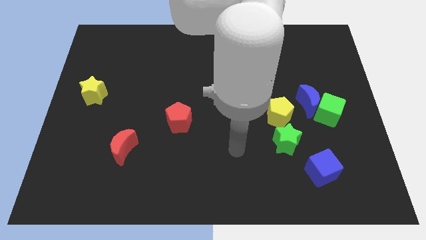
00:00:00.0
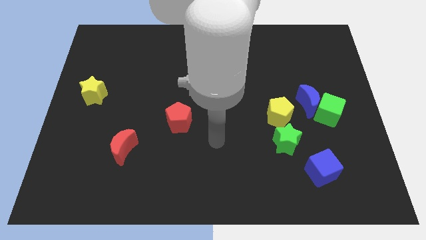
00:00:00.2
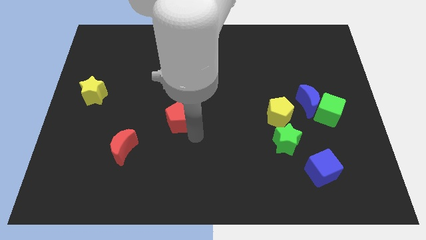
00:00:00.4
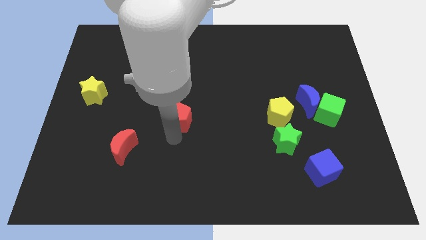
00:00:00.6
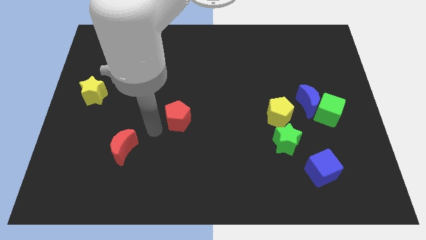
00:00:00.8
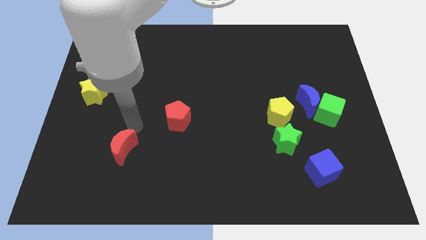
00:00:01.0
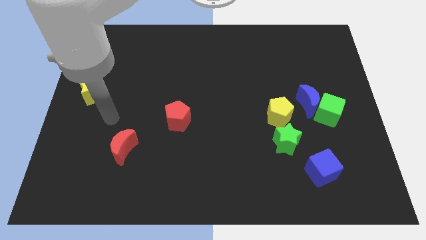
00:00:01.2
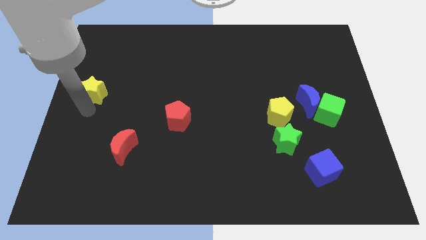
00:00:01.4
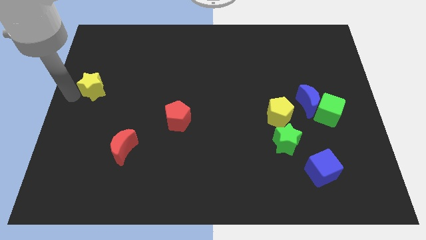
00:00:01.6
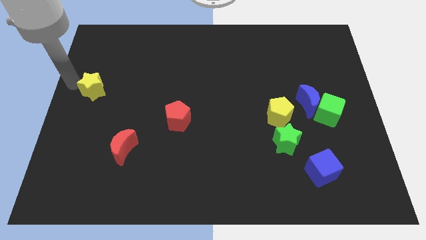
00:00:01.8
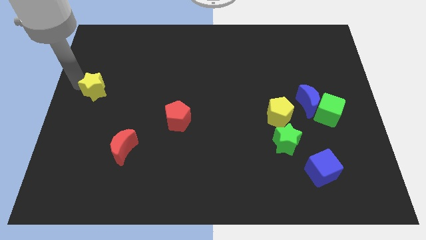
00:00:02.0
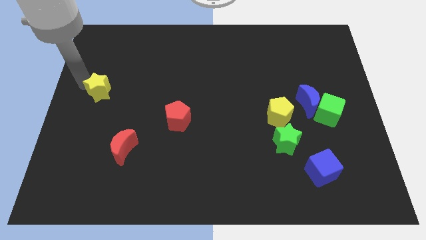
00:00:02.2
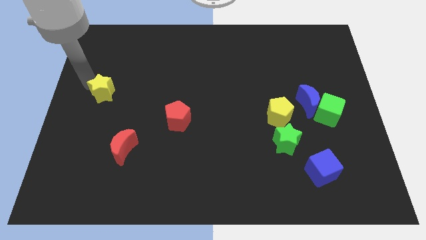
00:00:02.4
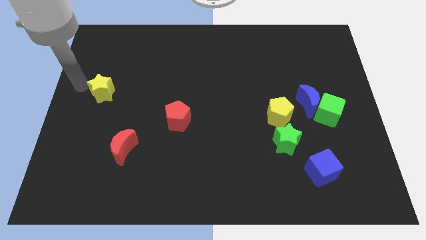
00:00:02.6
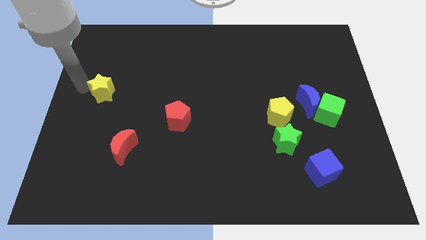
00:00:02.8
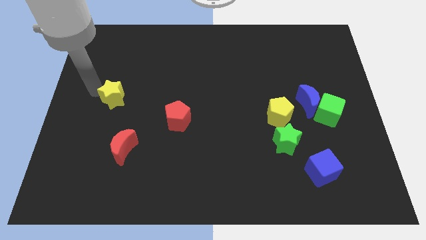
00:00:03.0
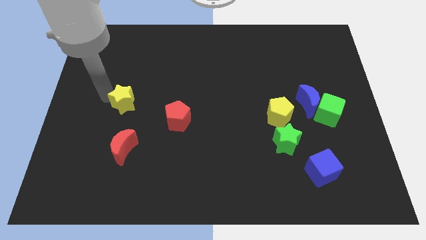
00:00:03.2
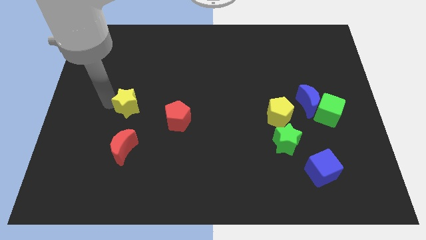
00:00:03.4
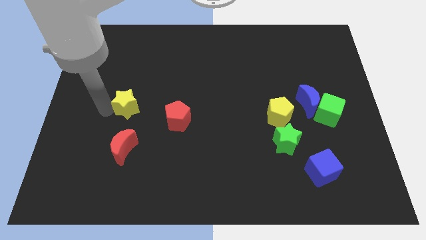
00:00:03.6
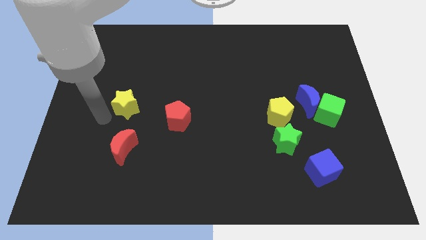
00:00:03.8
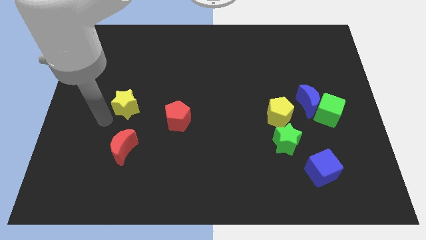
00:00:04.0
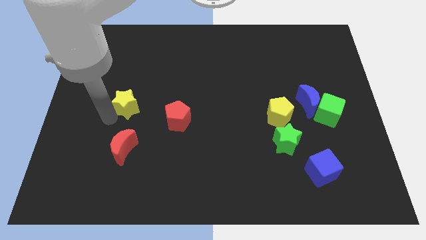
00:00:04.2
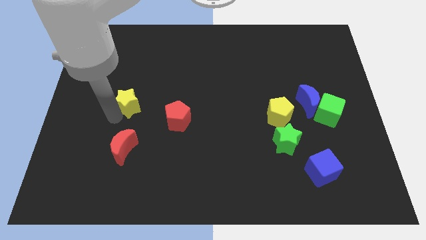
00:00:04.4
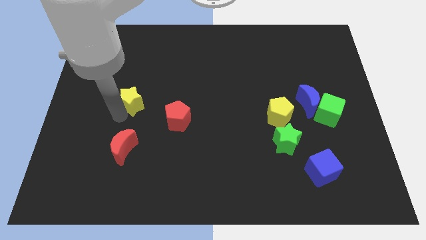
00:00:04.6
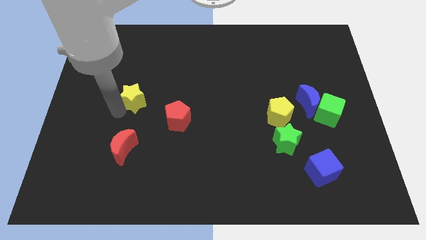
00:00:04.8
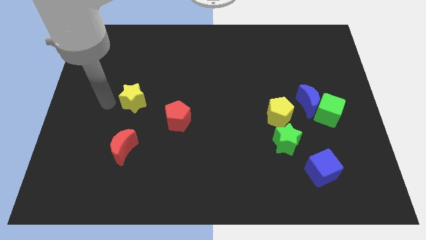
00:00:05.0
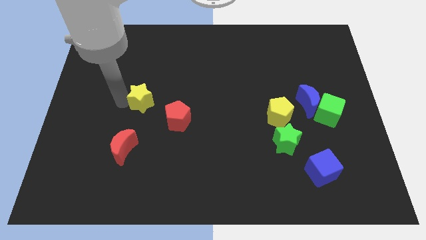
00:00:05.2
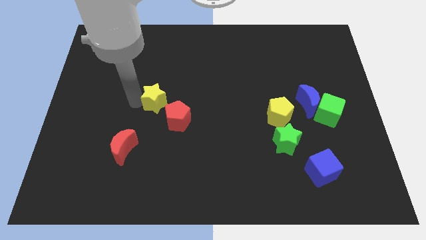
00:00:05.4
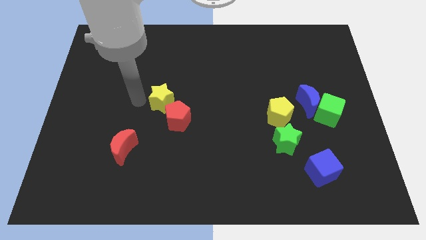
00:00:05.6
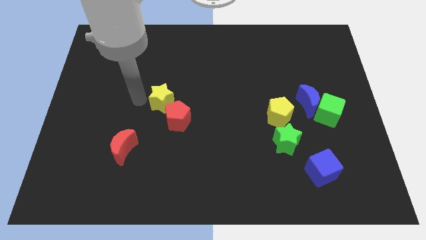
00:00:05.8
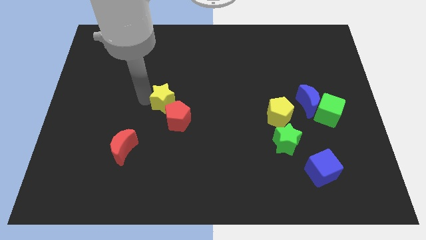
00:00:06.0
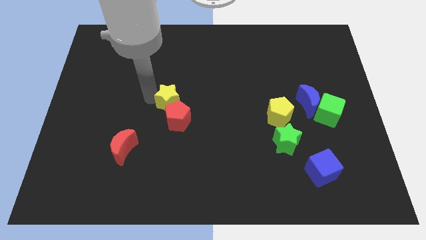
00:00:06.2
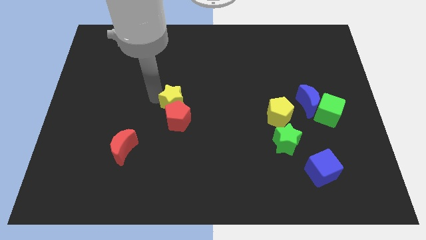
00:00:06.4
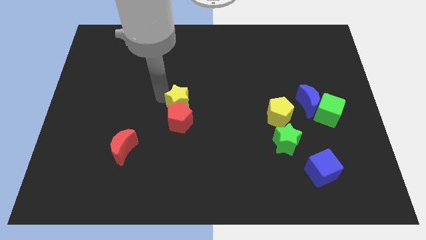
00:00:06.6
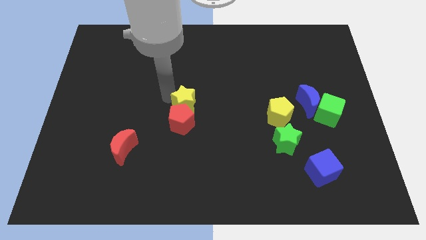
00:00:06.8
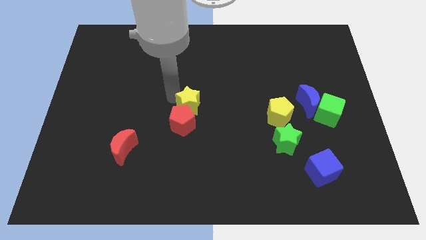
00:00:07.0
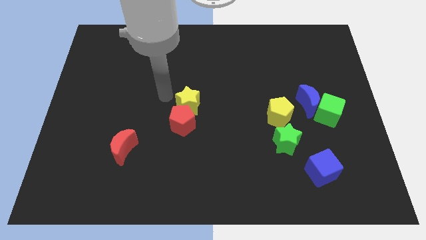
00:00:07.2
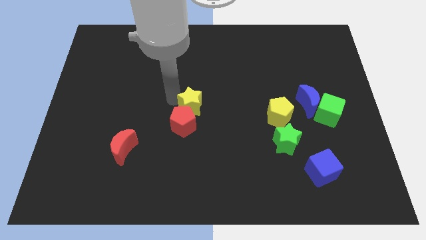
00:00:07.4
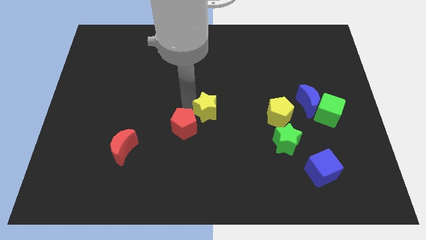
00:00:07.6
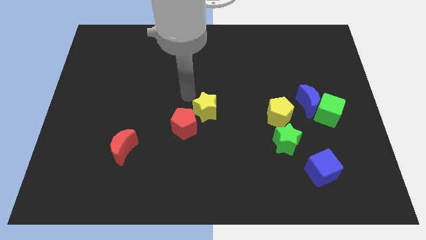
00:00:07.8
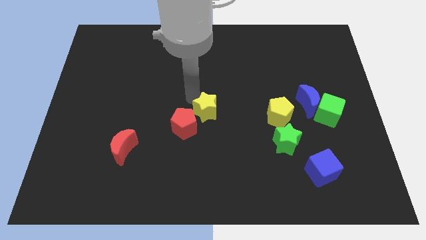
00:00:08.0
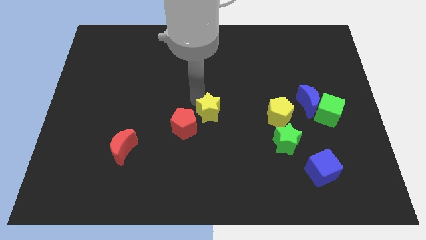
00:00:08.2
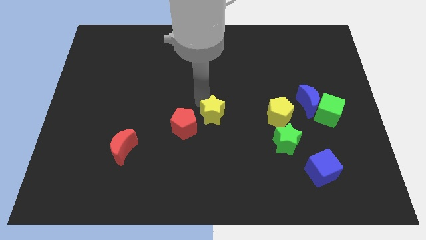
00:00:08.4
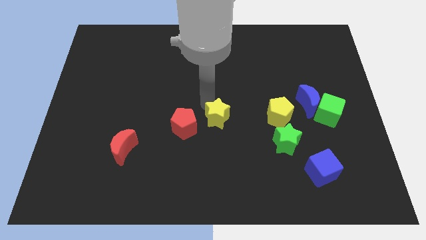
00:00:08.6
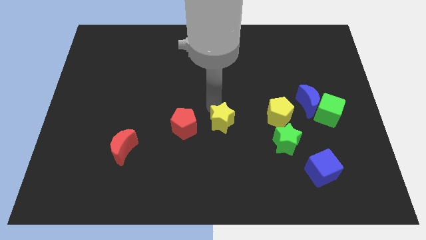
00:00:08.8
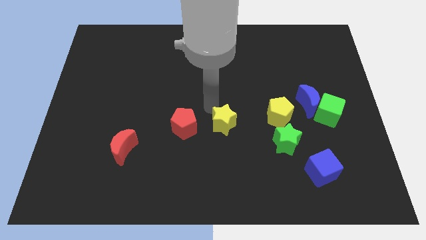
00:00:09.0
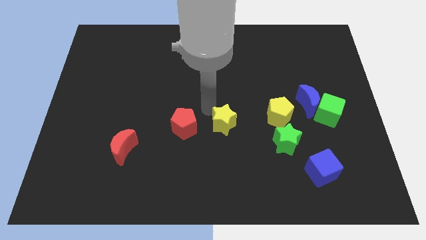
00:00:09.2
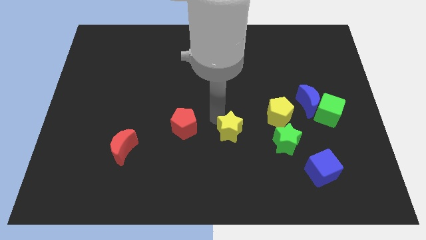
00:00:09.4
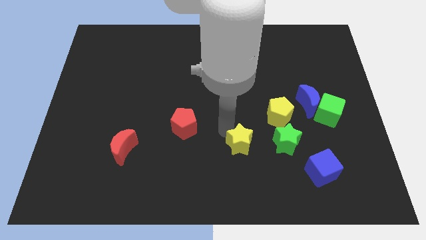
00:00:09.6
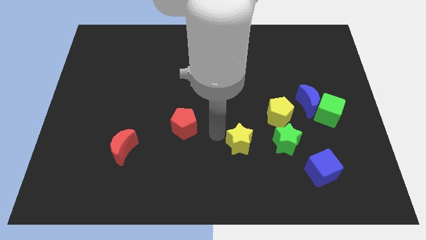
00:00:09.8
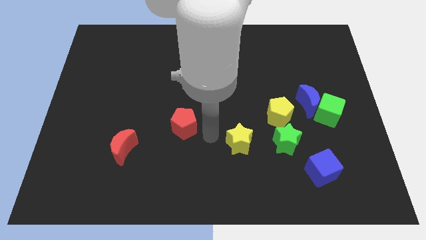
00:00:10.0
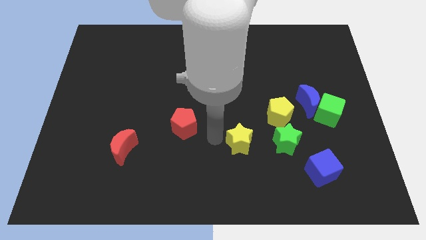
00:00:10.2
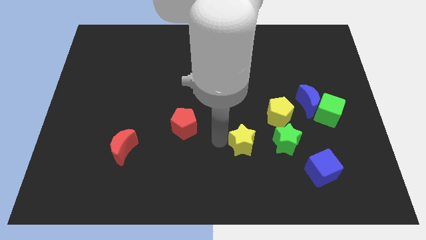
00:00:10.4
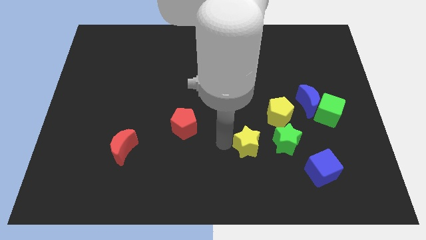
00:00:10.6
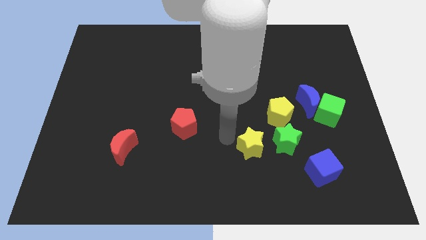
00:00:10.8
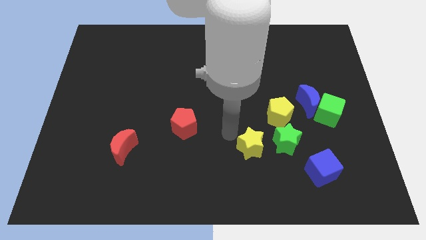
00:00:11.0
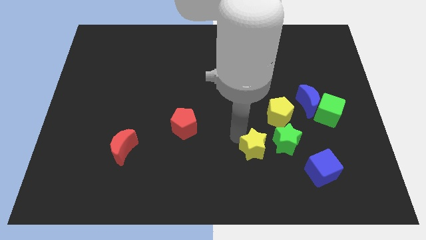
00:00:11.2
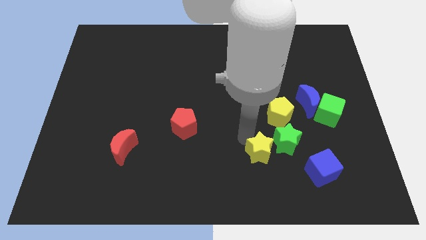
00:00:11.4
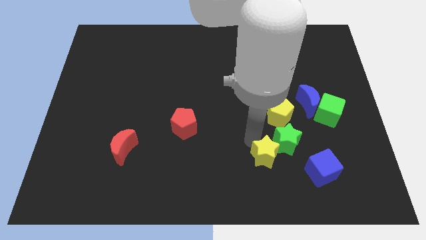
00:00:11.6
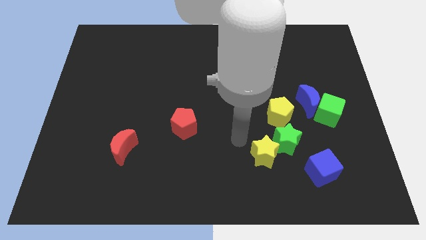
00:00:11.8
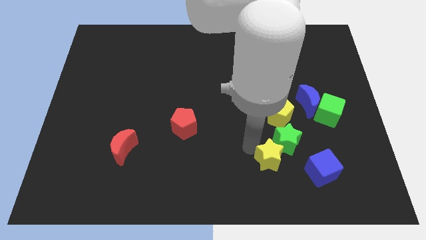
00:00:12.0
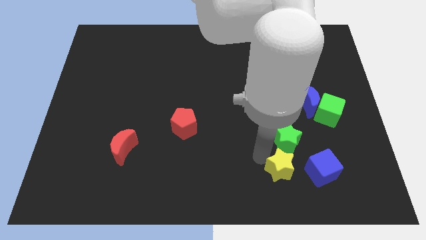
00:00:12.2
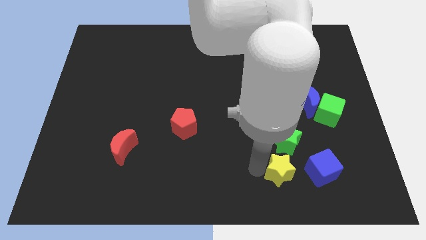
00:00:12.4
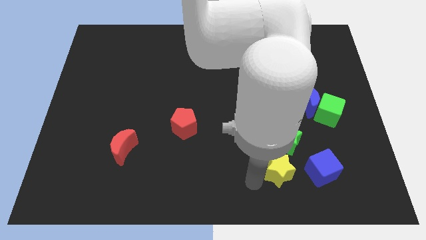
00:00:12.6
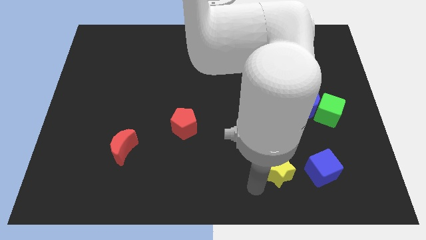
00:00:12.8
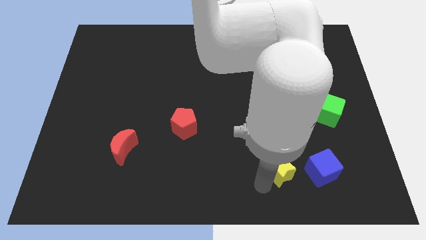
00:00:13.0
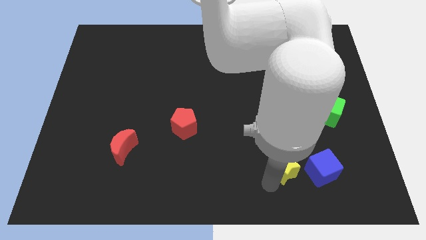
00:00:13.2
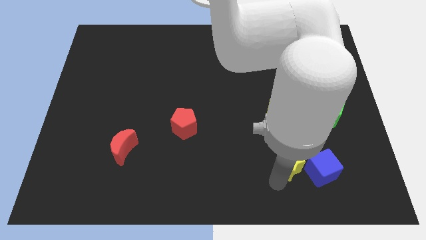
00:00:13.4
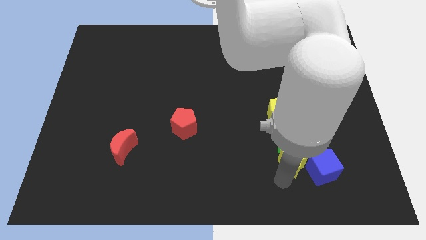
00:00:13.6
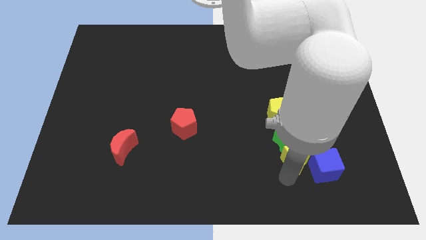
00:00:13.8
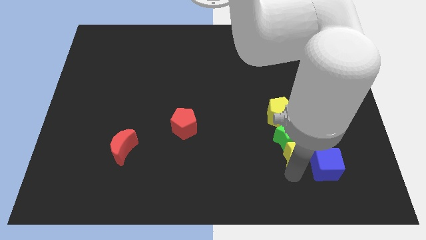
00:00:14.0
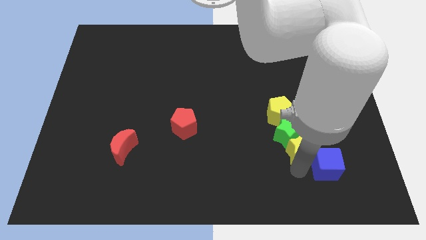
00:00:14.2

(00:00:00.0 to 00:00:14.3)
put the yellow star to the bottom side of the blue moon
